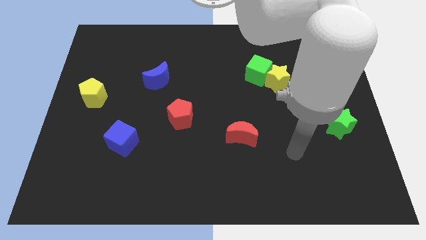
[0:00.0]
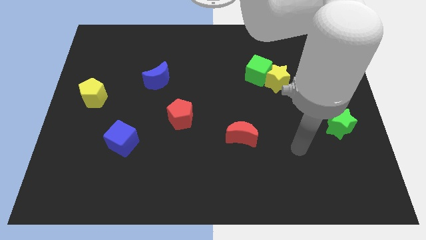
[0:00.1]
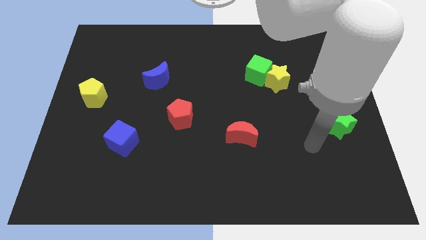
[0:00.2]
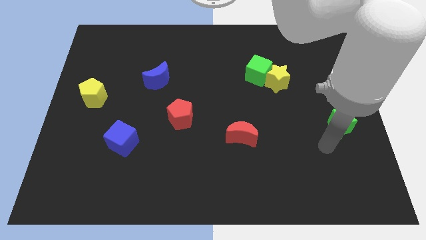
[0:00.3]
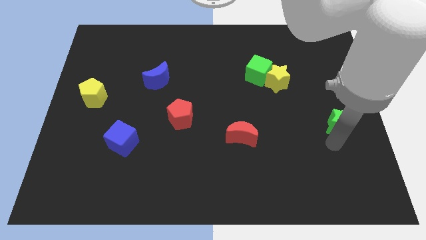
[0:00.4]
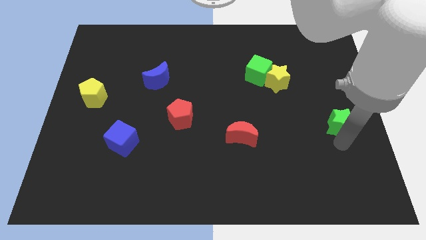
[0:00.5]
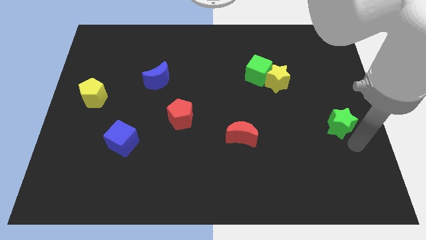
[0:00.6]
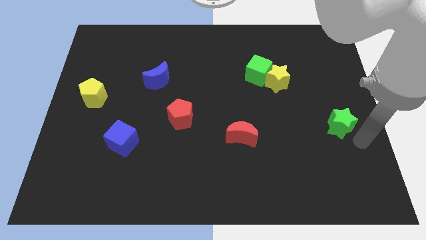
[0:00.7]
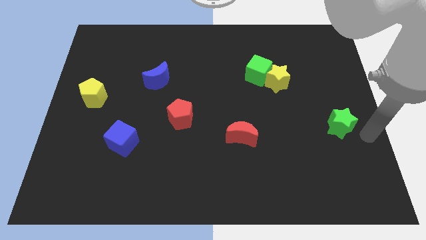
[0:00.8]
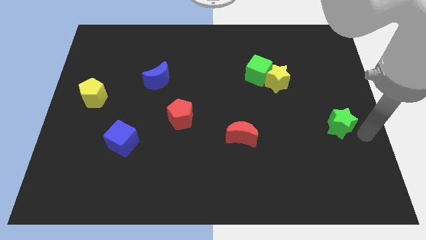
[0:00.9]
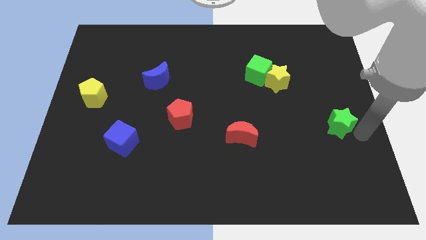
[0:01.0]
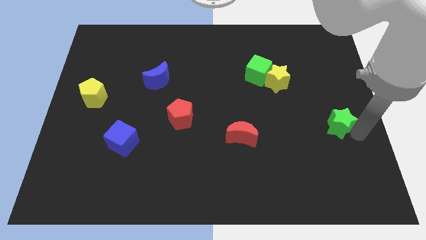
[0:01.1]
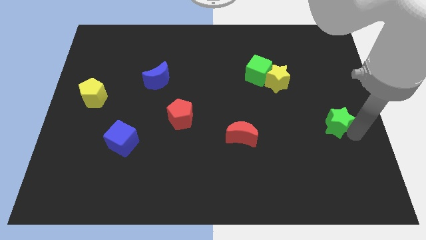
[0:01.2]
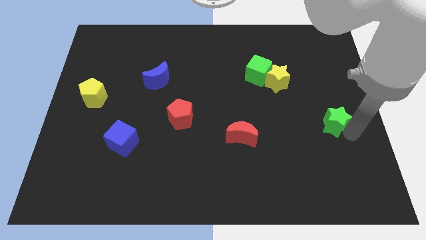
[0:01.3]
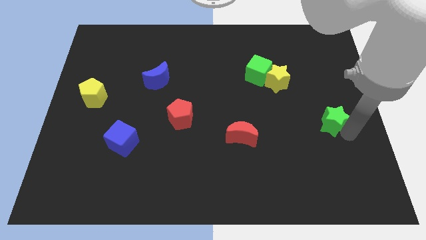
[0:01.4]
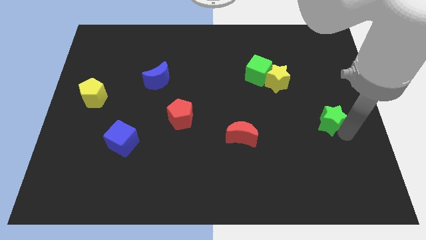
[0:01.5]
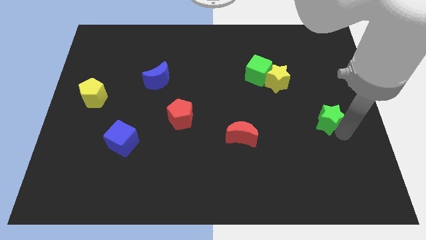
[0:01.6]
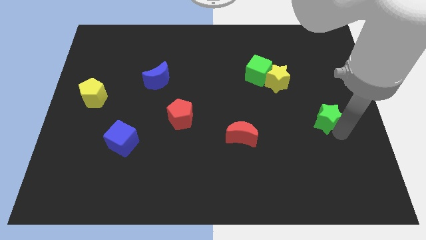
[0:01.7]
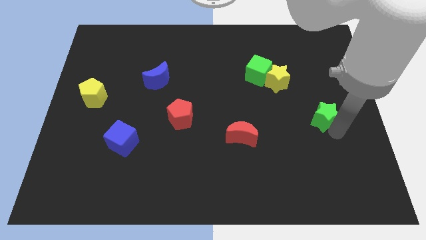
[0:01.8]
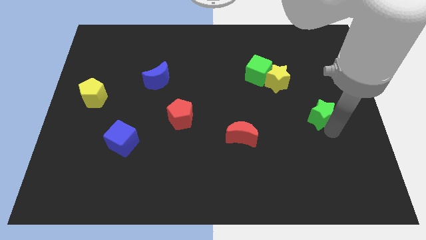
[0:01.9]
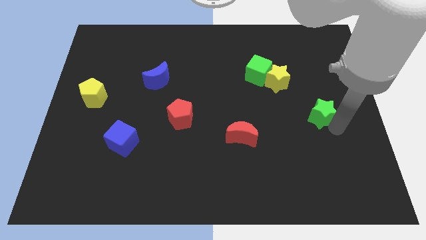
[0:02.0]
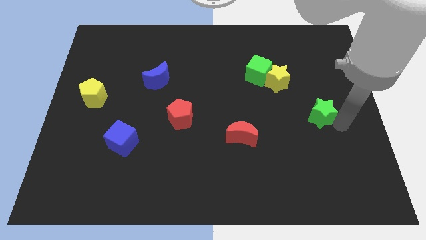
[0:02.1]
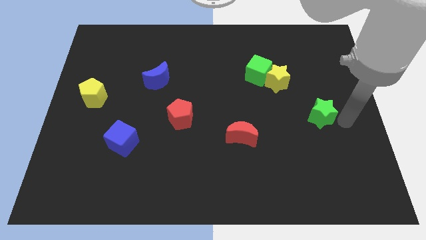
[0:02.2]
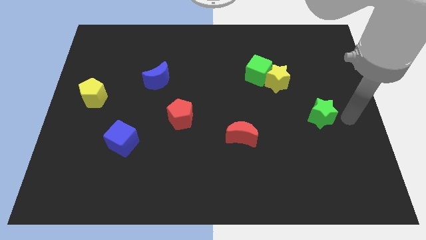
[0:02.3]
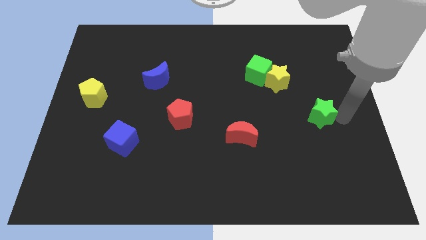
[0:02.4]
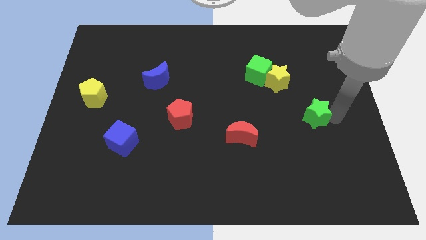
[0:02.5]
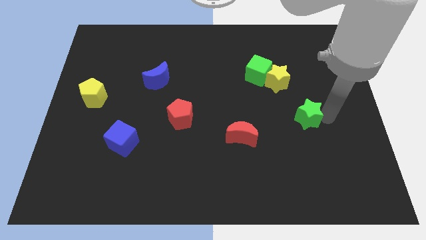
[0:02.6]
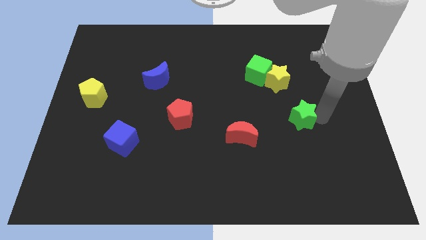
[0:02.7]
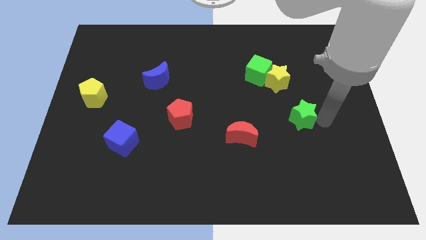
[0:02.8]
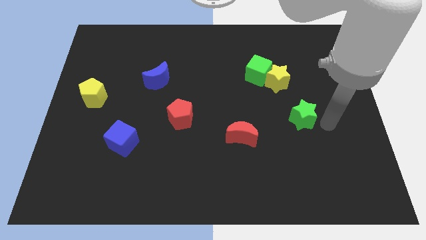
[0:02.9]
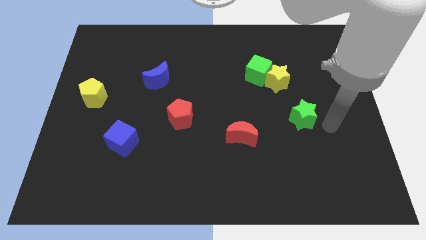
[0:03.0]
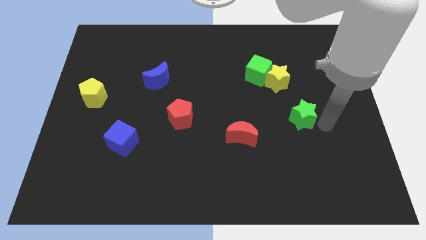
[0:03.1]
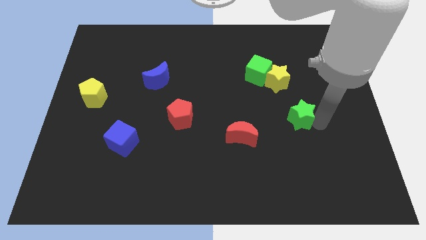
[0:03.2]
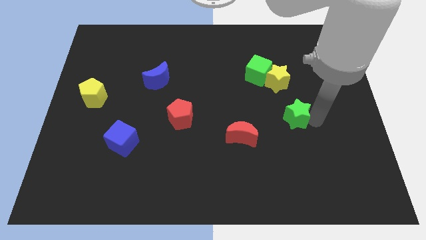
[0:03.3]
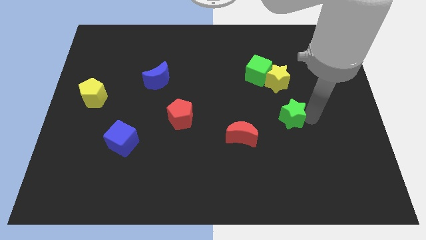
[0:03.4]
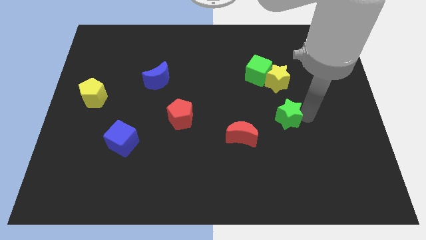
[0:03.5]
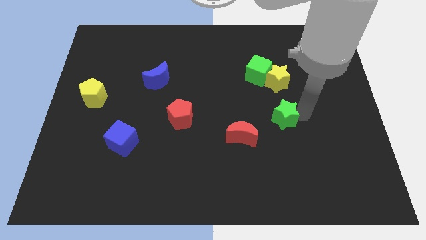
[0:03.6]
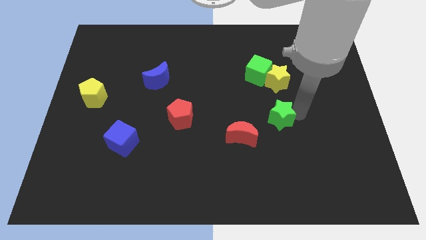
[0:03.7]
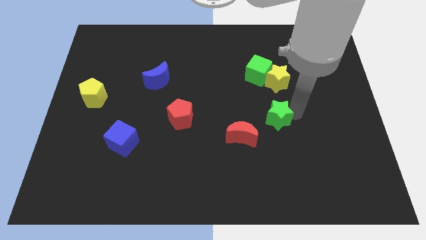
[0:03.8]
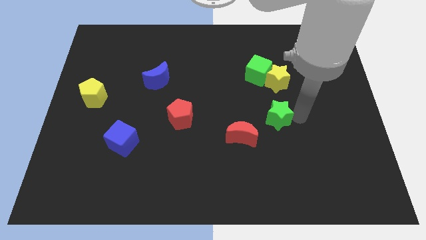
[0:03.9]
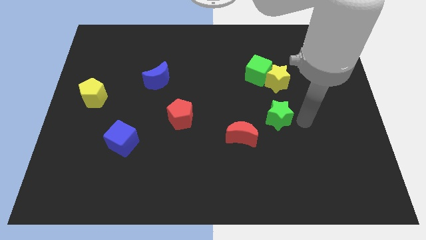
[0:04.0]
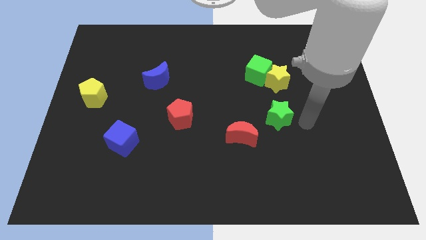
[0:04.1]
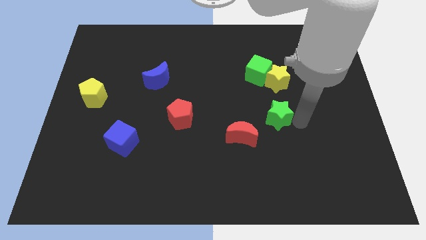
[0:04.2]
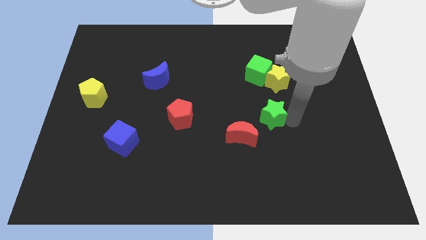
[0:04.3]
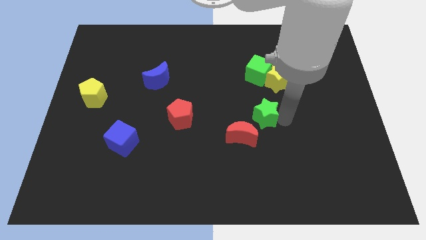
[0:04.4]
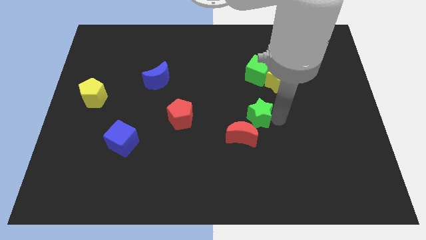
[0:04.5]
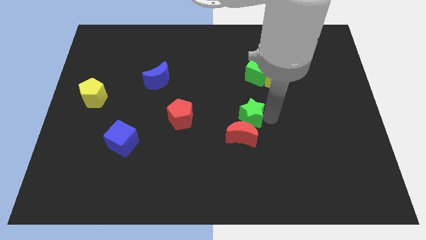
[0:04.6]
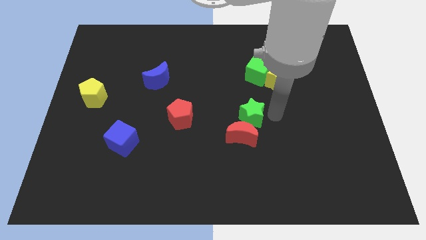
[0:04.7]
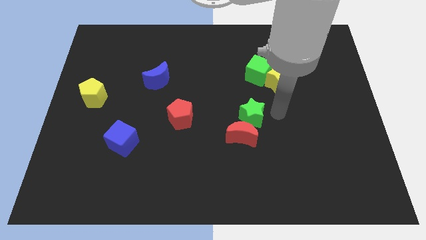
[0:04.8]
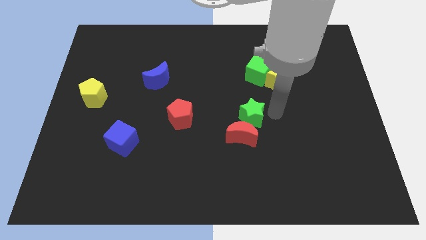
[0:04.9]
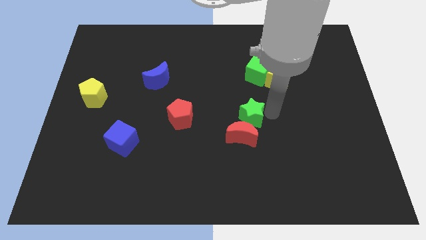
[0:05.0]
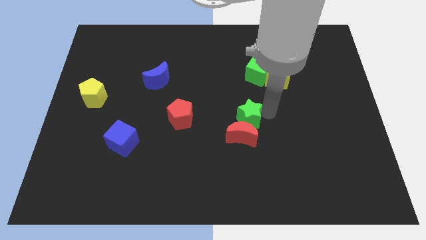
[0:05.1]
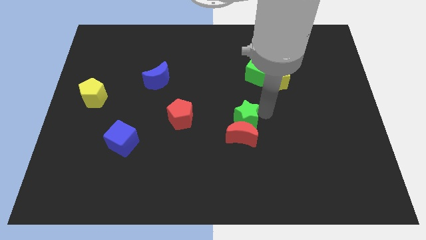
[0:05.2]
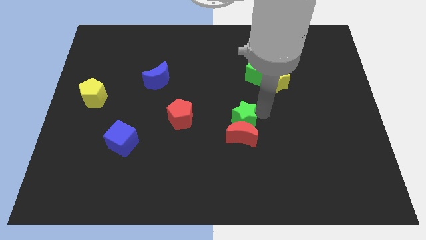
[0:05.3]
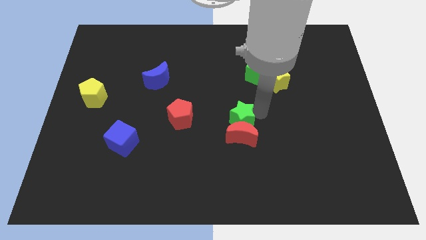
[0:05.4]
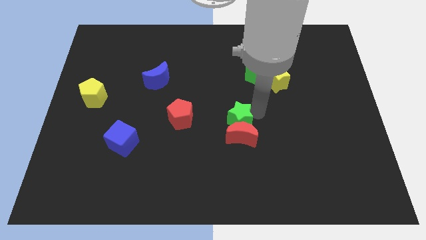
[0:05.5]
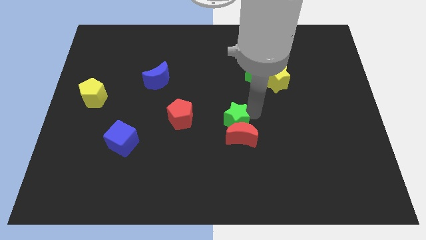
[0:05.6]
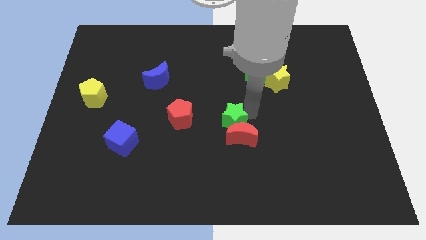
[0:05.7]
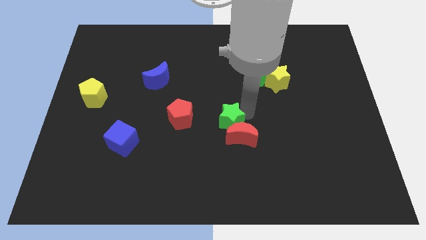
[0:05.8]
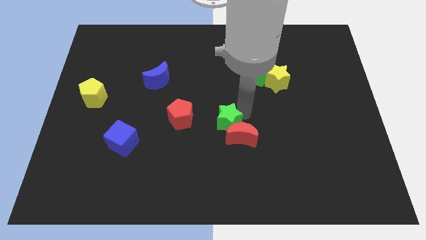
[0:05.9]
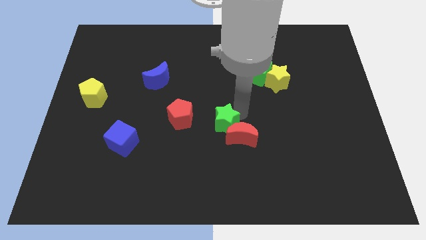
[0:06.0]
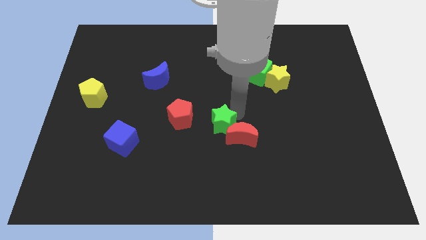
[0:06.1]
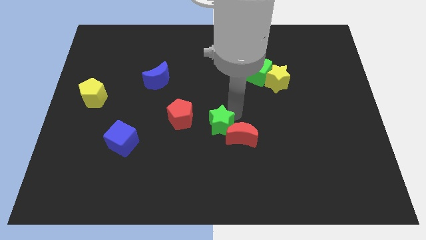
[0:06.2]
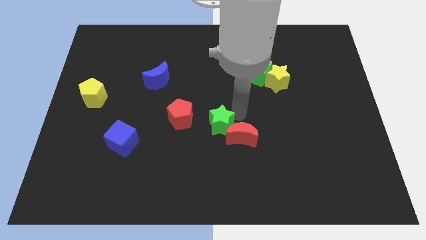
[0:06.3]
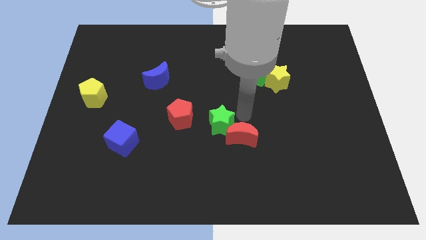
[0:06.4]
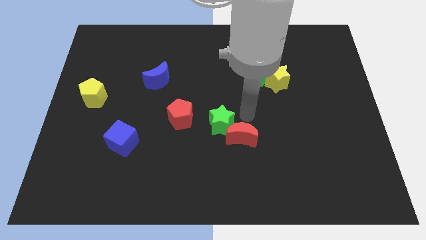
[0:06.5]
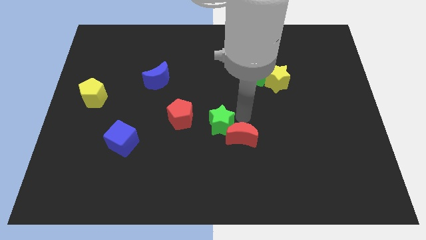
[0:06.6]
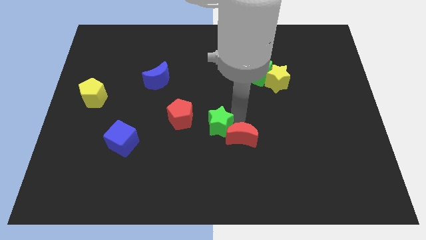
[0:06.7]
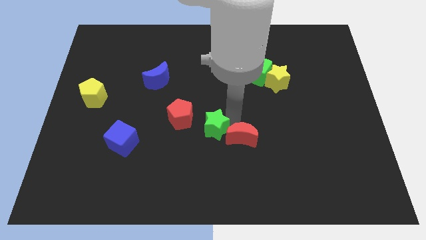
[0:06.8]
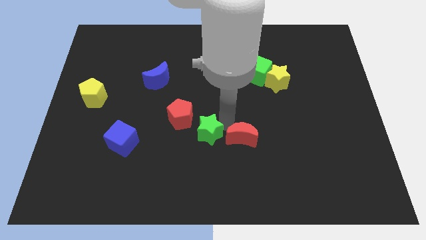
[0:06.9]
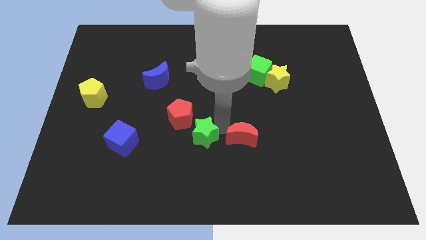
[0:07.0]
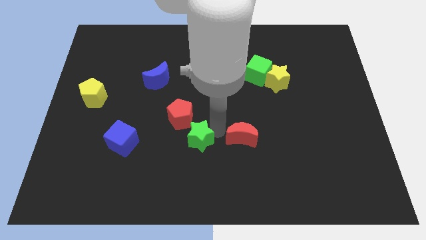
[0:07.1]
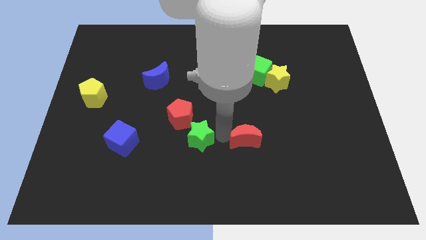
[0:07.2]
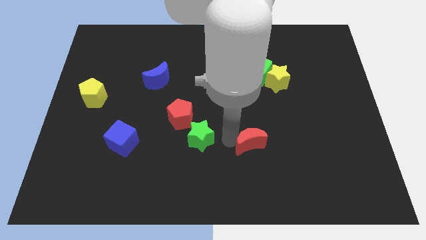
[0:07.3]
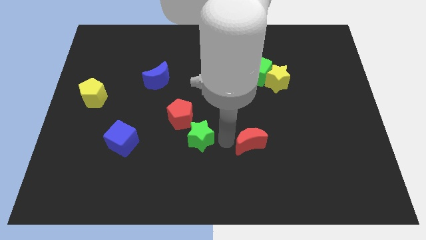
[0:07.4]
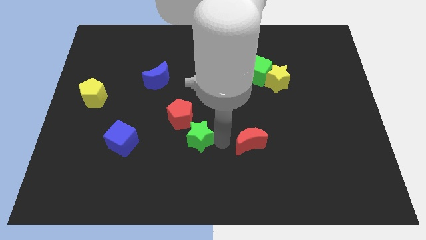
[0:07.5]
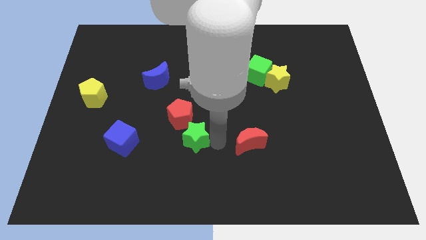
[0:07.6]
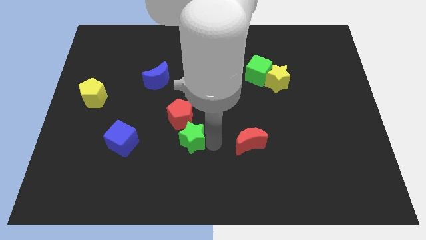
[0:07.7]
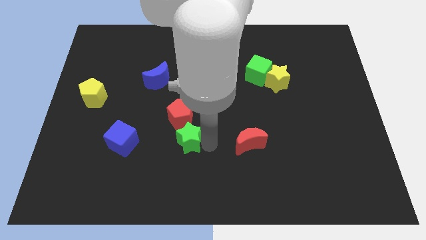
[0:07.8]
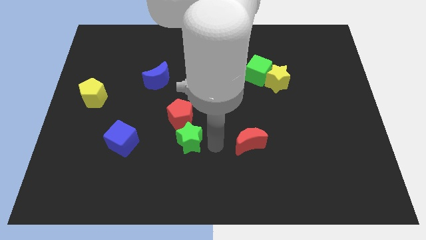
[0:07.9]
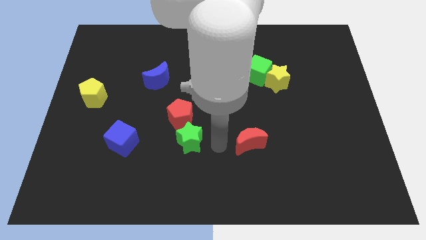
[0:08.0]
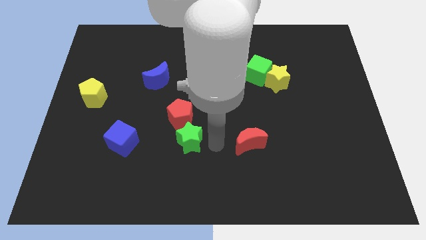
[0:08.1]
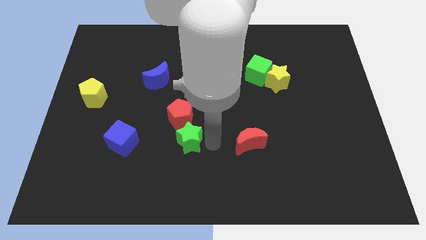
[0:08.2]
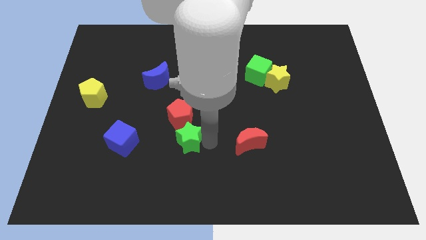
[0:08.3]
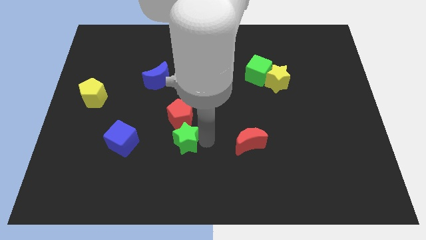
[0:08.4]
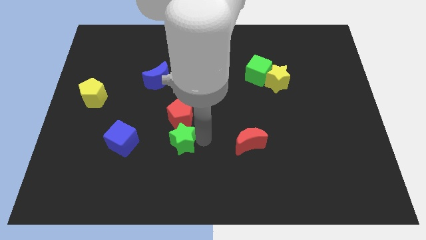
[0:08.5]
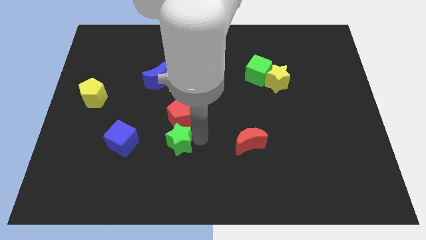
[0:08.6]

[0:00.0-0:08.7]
move the green star to the bottom left side of the red pentagon
